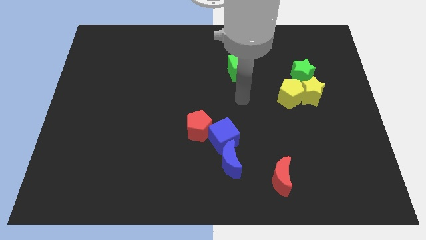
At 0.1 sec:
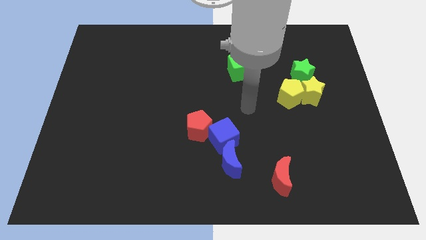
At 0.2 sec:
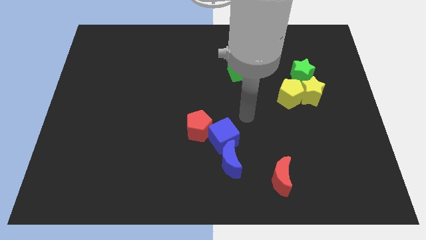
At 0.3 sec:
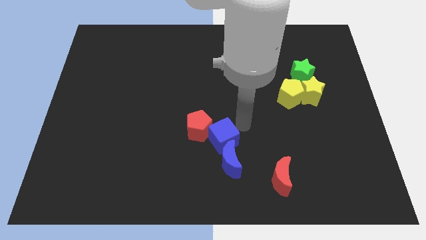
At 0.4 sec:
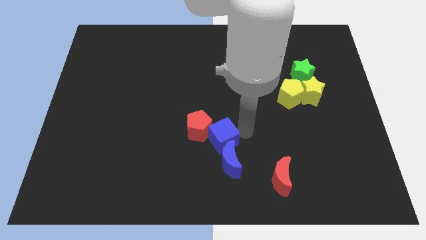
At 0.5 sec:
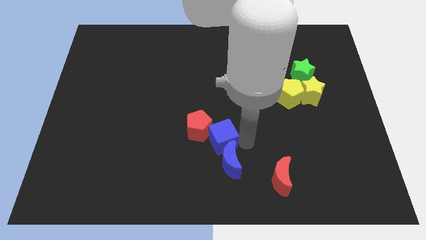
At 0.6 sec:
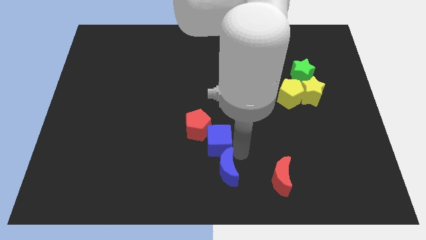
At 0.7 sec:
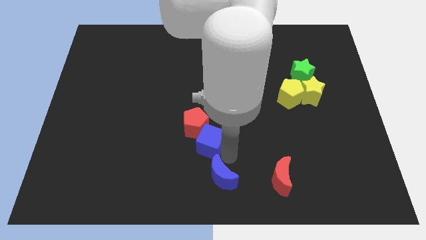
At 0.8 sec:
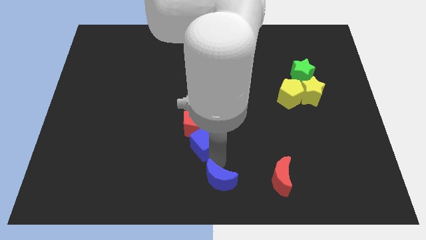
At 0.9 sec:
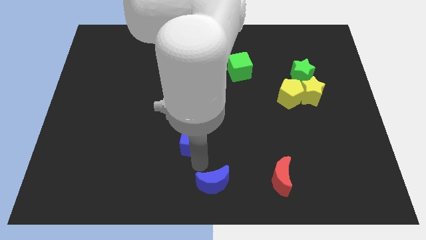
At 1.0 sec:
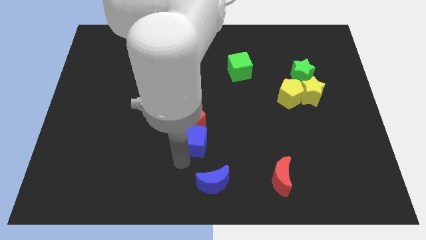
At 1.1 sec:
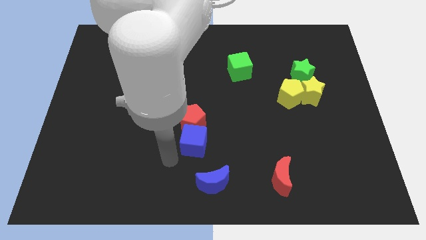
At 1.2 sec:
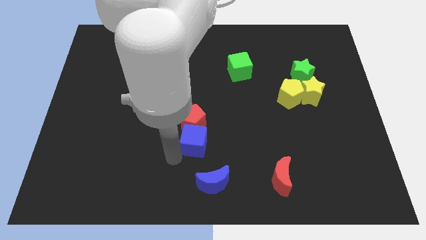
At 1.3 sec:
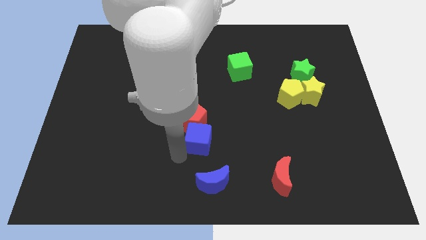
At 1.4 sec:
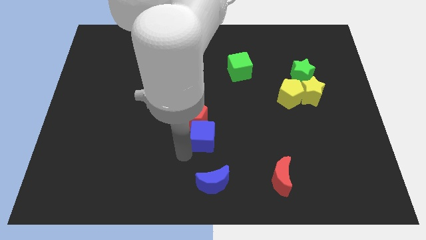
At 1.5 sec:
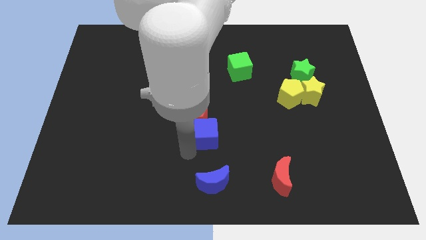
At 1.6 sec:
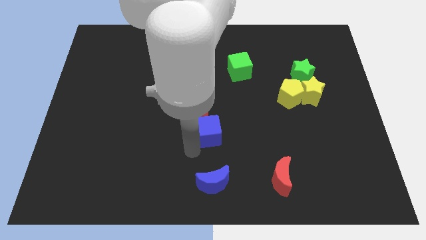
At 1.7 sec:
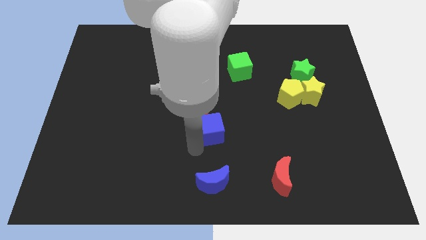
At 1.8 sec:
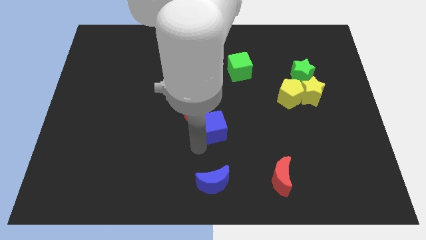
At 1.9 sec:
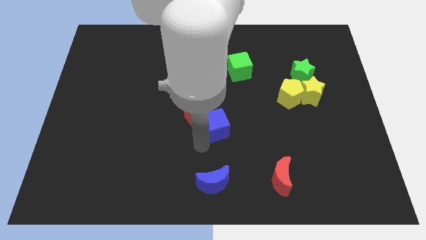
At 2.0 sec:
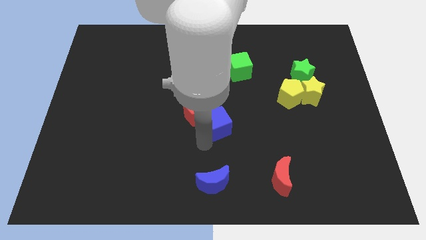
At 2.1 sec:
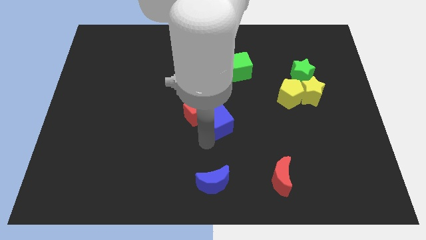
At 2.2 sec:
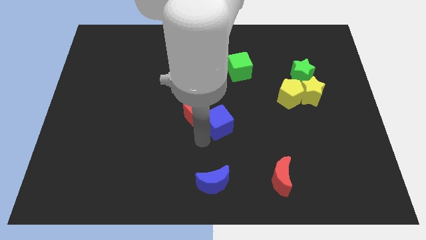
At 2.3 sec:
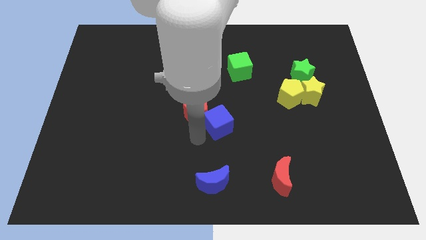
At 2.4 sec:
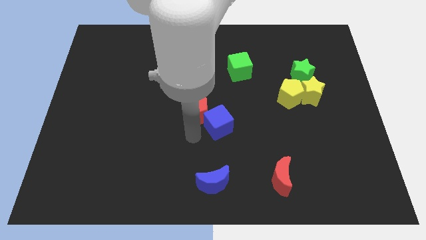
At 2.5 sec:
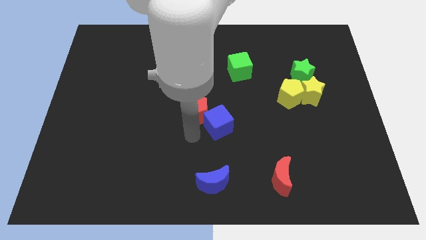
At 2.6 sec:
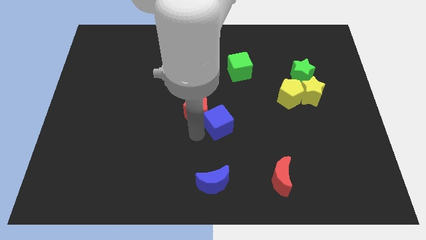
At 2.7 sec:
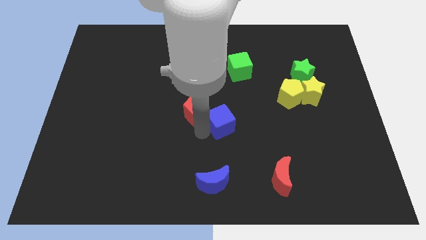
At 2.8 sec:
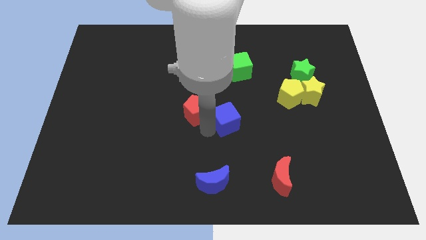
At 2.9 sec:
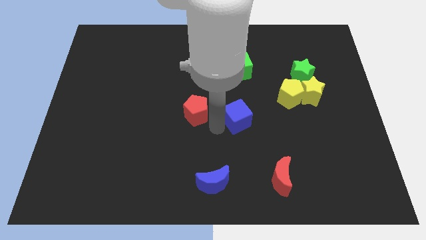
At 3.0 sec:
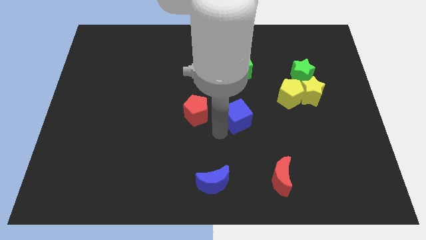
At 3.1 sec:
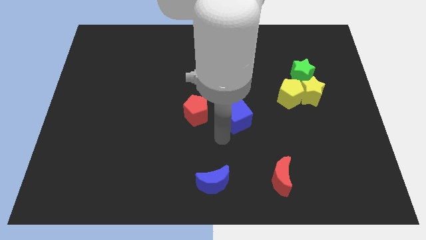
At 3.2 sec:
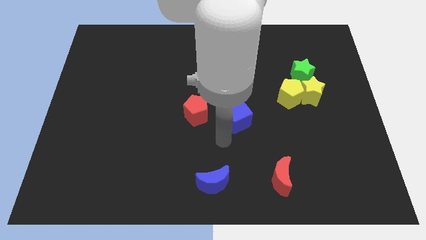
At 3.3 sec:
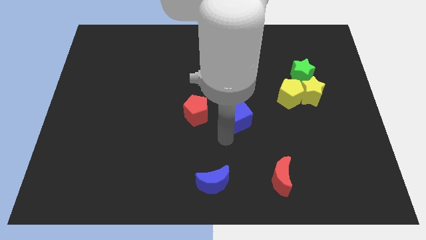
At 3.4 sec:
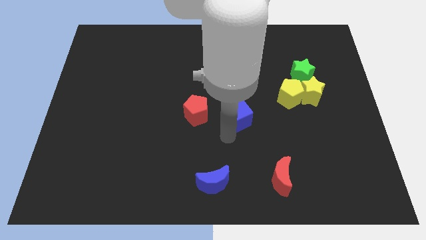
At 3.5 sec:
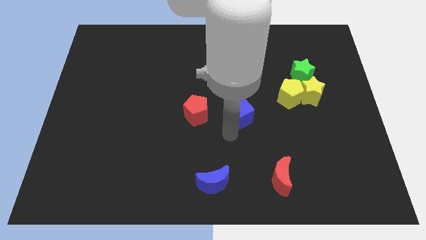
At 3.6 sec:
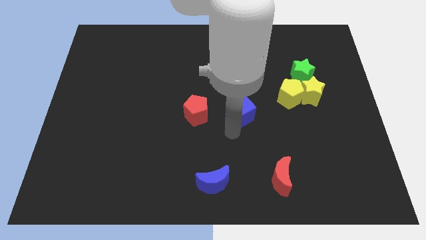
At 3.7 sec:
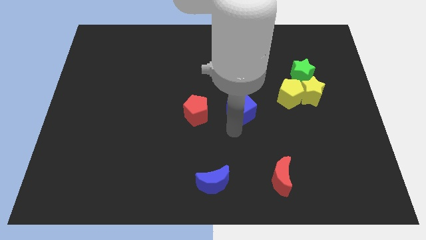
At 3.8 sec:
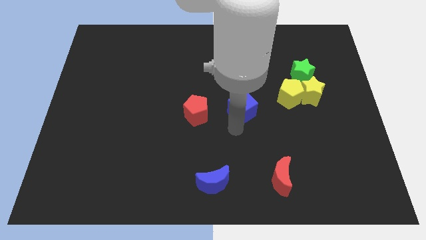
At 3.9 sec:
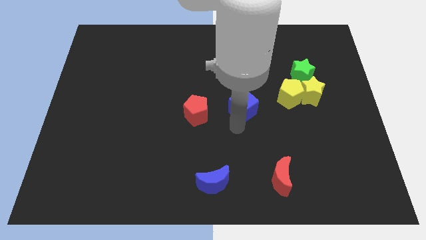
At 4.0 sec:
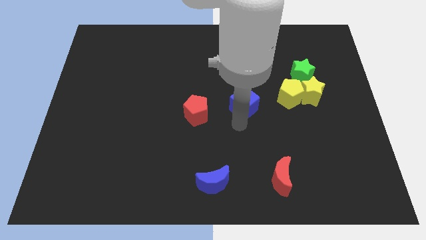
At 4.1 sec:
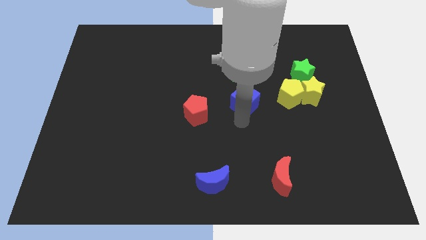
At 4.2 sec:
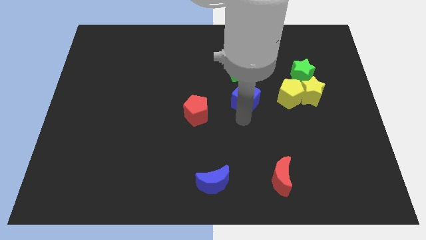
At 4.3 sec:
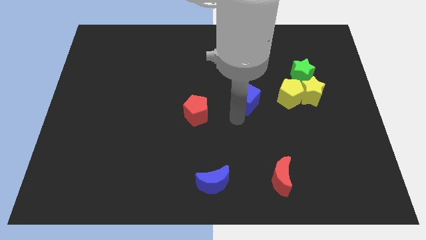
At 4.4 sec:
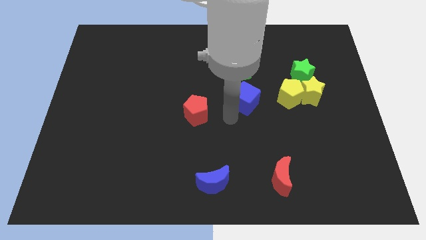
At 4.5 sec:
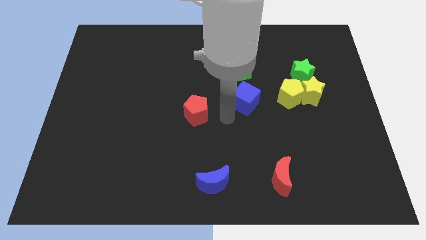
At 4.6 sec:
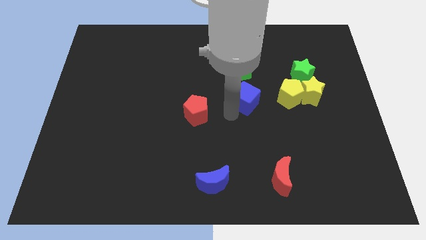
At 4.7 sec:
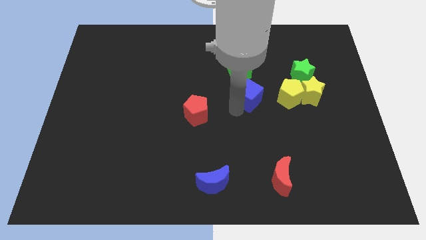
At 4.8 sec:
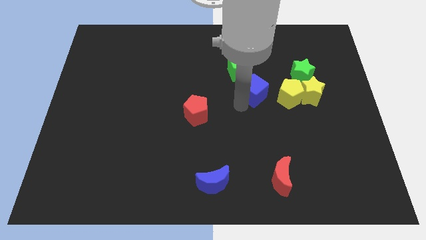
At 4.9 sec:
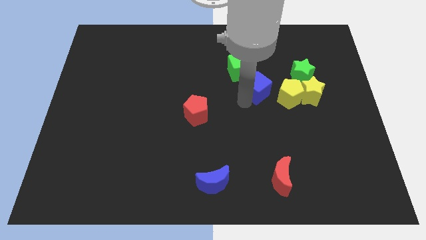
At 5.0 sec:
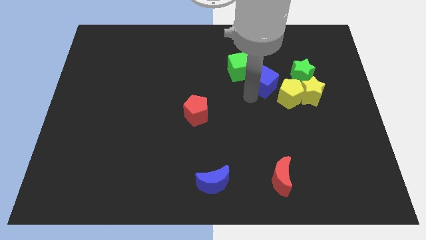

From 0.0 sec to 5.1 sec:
push the blue cube just right of the green cube

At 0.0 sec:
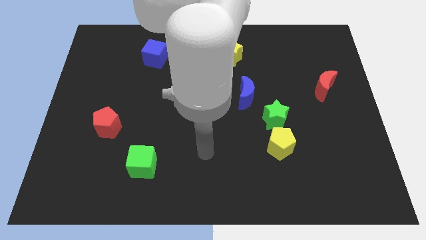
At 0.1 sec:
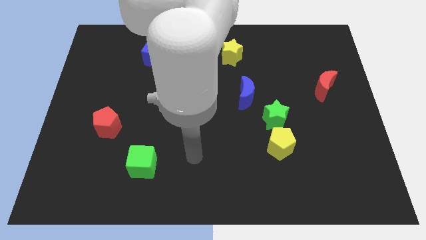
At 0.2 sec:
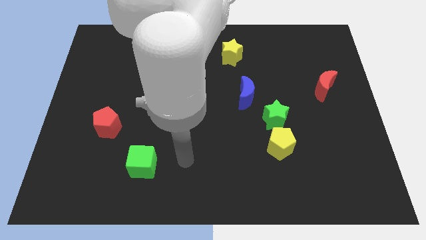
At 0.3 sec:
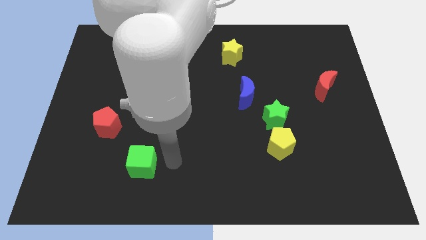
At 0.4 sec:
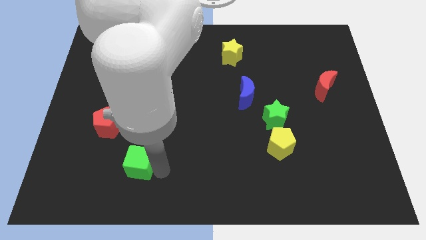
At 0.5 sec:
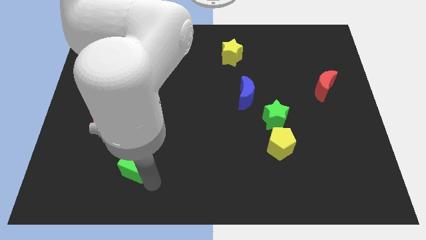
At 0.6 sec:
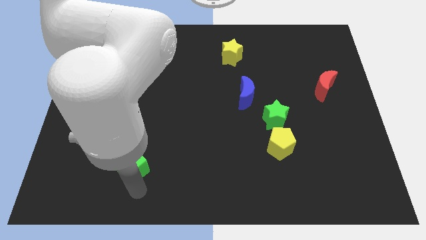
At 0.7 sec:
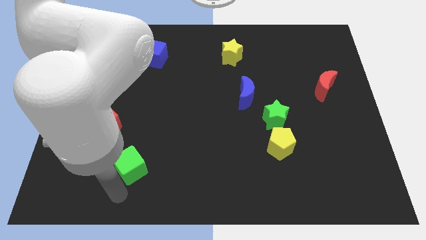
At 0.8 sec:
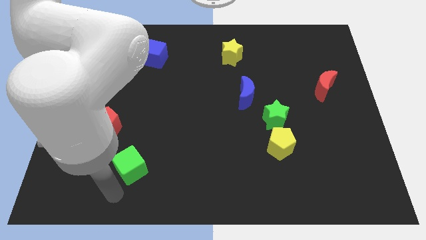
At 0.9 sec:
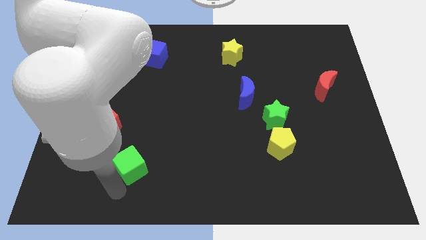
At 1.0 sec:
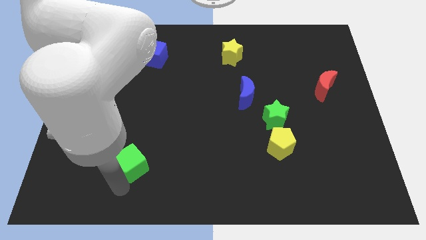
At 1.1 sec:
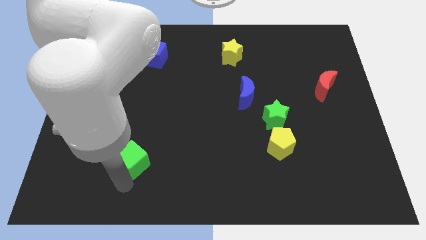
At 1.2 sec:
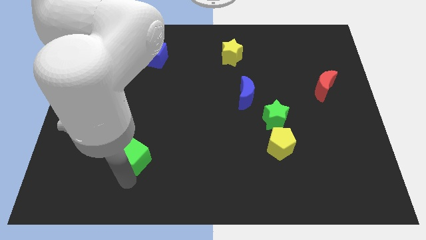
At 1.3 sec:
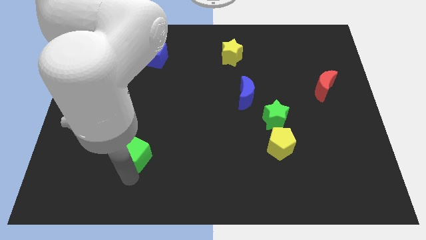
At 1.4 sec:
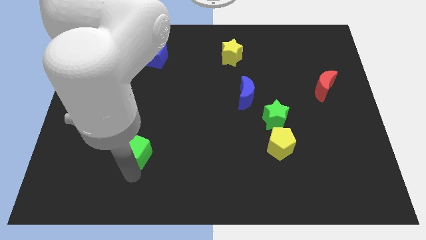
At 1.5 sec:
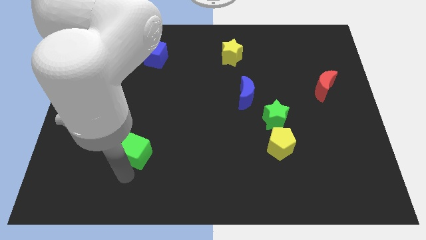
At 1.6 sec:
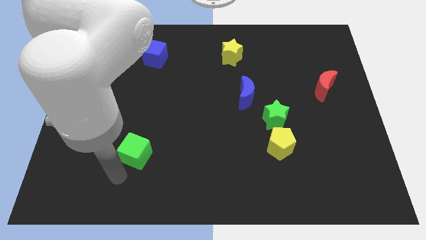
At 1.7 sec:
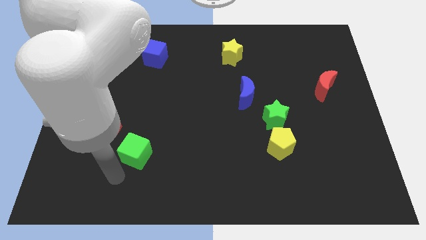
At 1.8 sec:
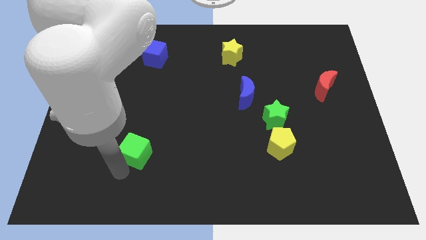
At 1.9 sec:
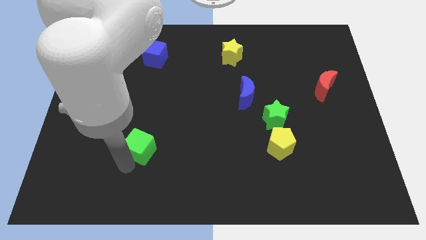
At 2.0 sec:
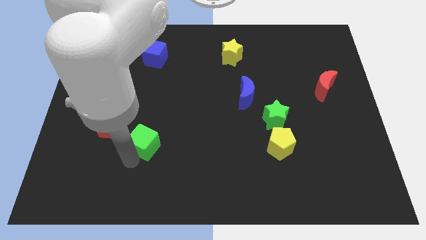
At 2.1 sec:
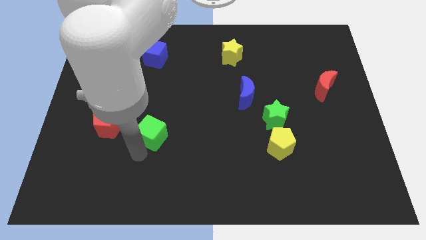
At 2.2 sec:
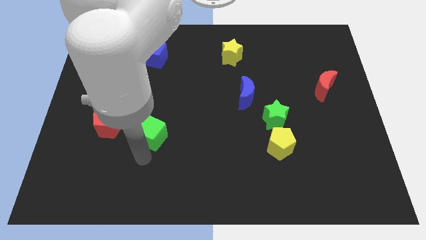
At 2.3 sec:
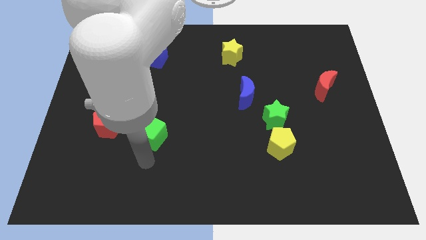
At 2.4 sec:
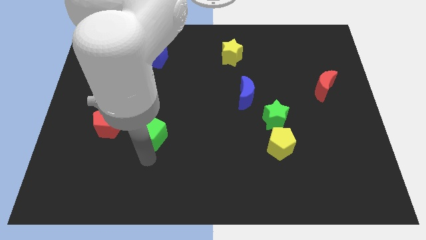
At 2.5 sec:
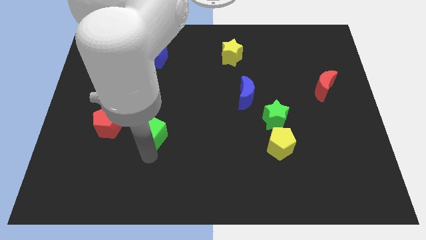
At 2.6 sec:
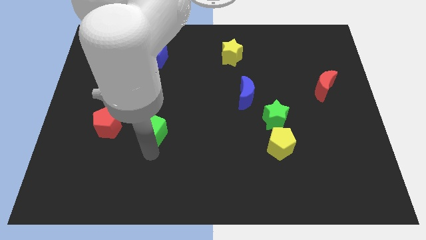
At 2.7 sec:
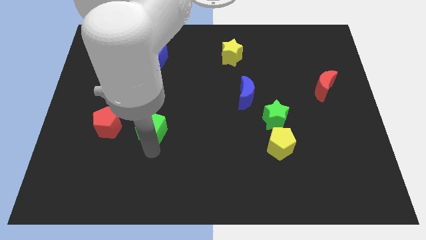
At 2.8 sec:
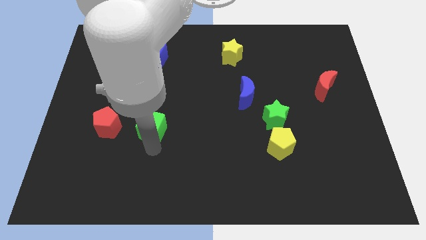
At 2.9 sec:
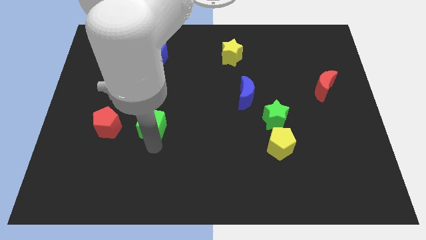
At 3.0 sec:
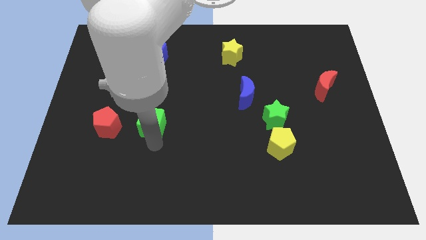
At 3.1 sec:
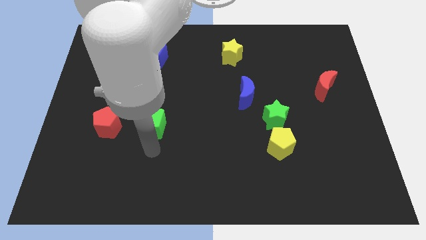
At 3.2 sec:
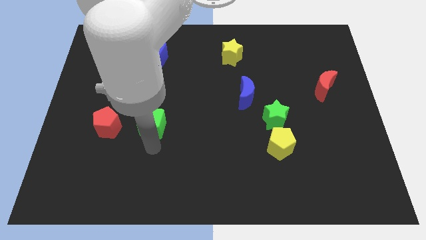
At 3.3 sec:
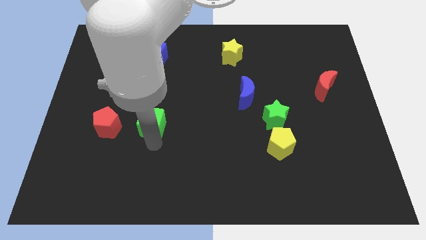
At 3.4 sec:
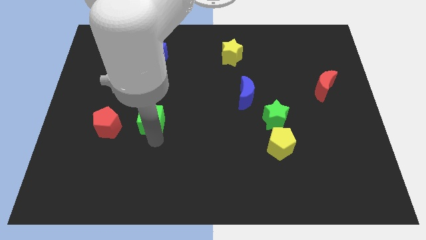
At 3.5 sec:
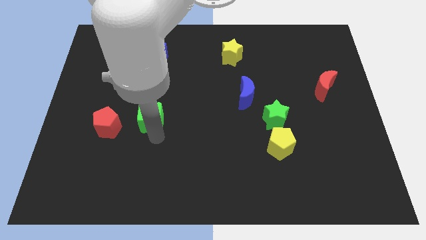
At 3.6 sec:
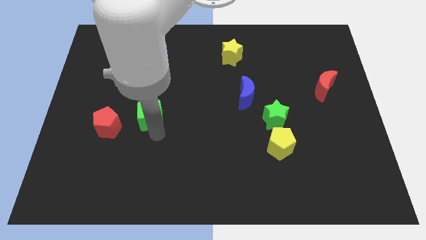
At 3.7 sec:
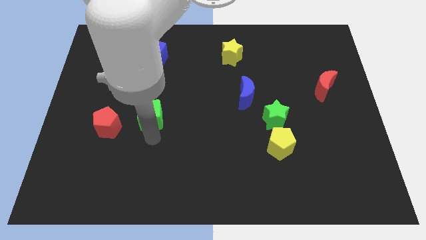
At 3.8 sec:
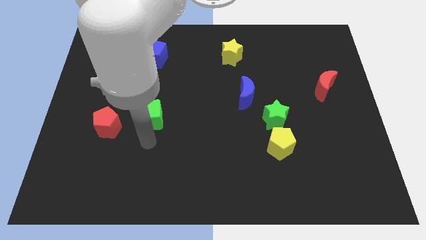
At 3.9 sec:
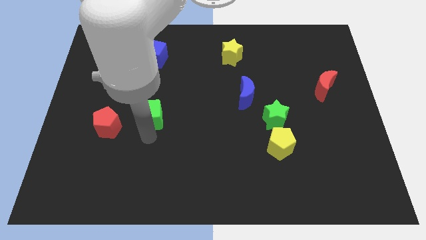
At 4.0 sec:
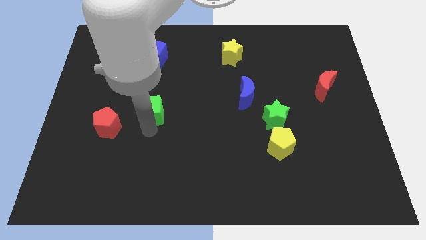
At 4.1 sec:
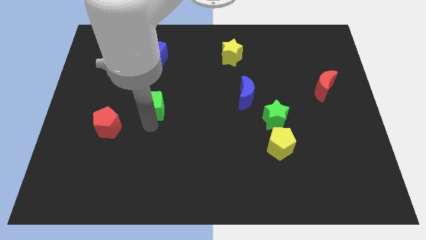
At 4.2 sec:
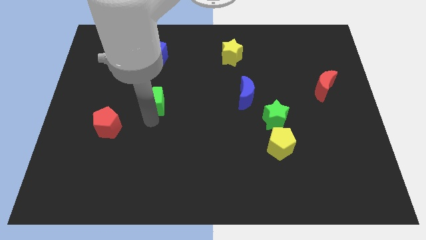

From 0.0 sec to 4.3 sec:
put the green cube below the blue cube
